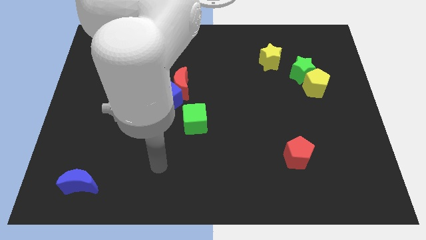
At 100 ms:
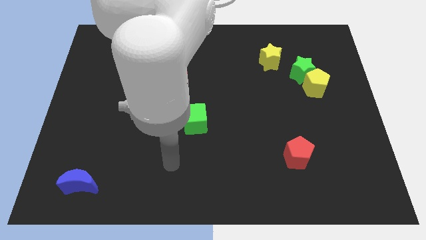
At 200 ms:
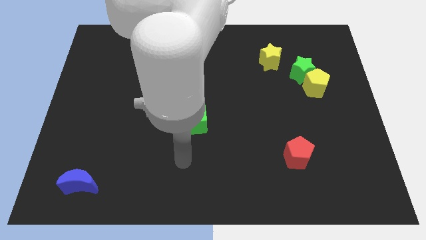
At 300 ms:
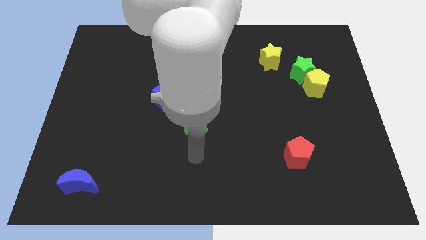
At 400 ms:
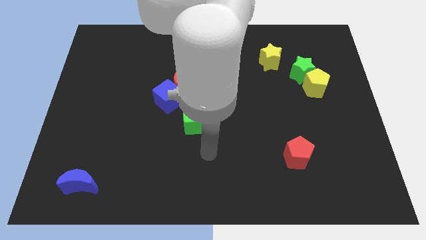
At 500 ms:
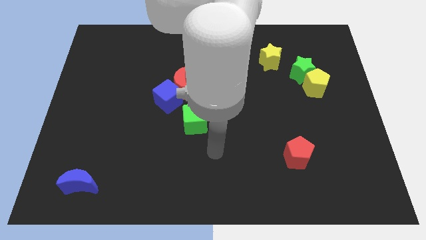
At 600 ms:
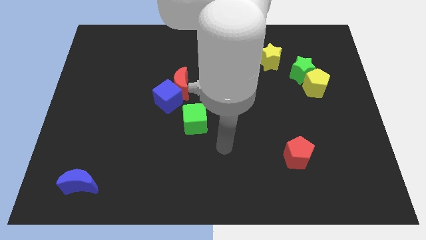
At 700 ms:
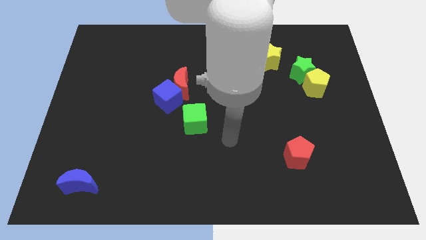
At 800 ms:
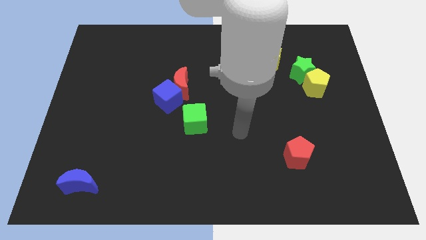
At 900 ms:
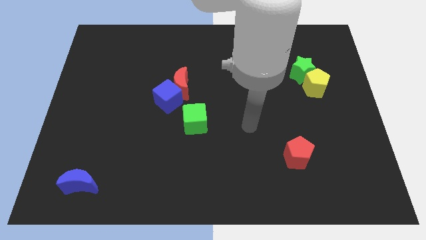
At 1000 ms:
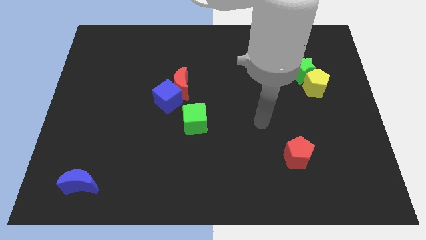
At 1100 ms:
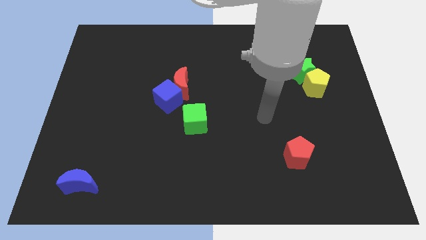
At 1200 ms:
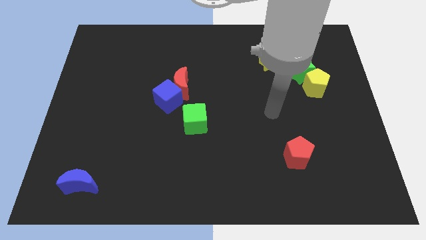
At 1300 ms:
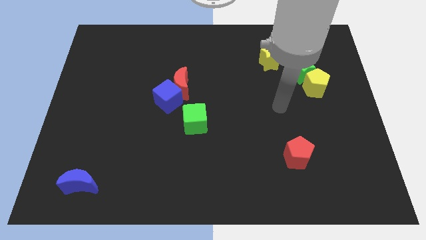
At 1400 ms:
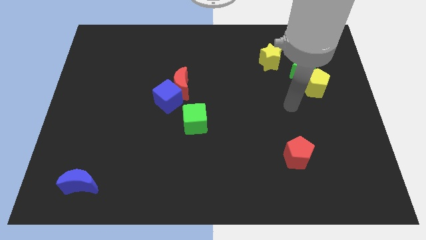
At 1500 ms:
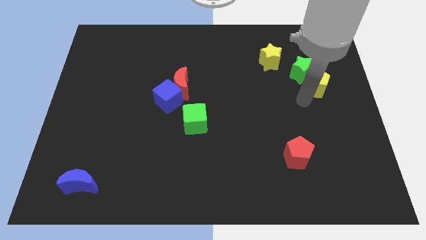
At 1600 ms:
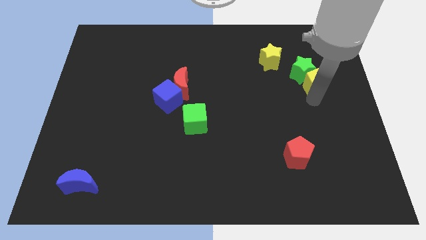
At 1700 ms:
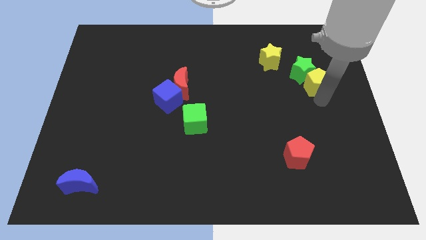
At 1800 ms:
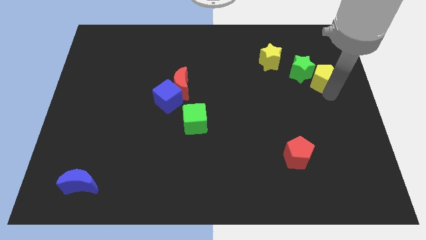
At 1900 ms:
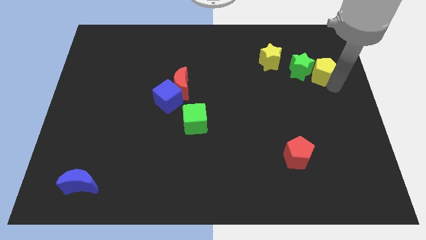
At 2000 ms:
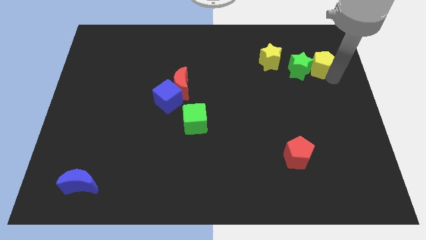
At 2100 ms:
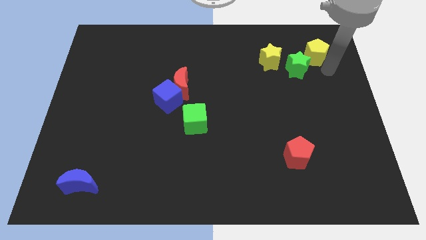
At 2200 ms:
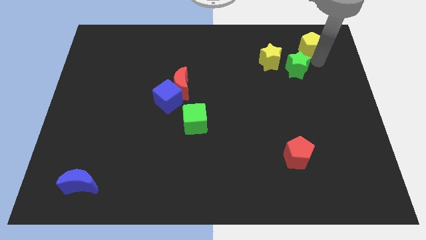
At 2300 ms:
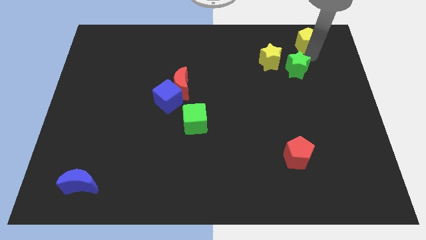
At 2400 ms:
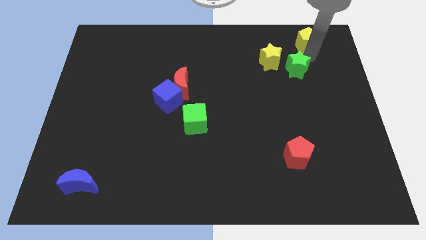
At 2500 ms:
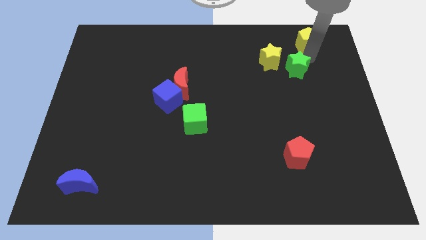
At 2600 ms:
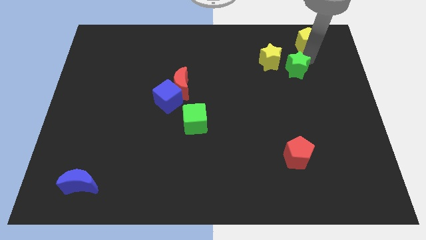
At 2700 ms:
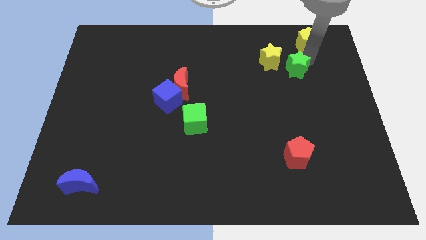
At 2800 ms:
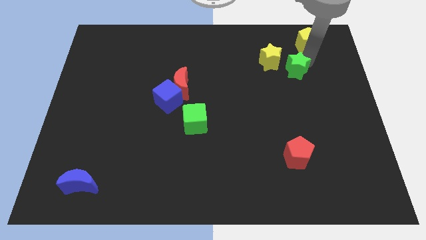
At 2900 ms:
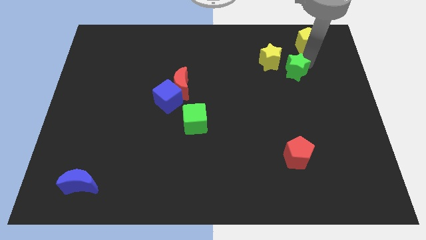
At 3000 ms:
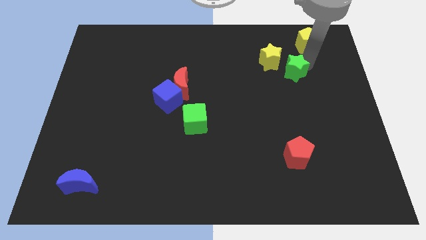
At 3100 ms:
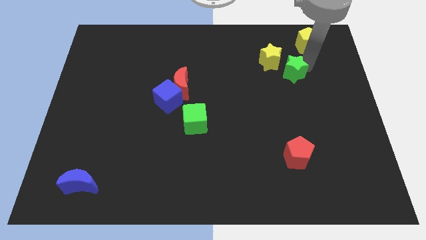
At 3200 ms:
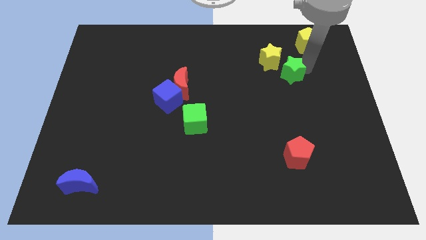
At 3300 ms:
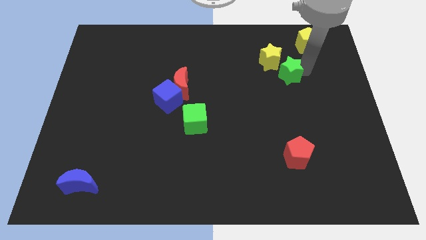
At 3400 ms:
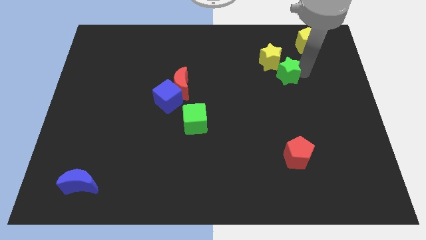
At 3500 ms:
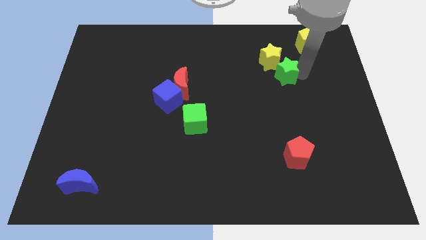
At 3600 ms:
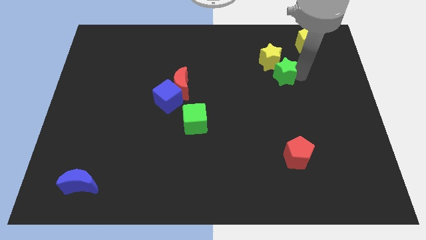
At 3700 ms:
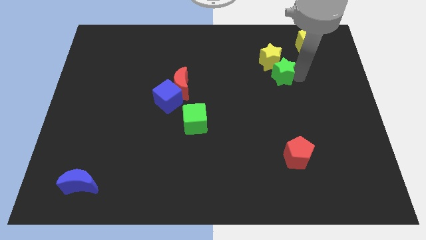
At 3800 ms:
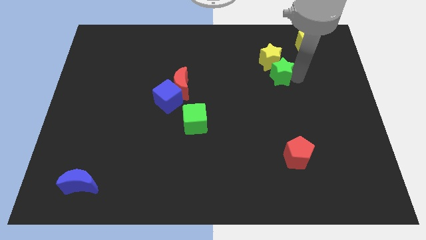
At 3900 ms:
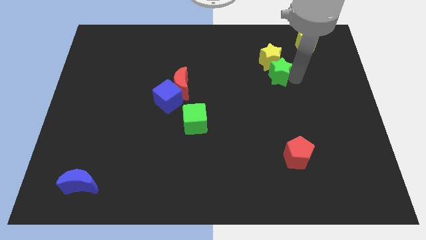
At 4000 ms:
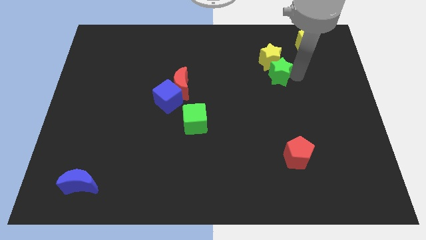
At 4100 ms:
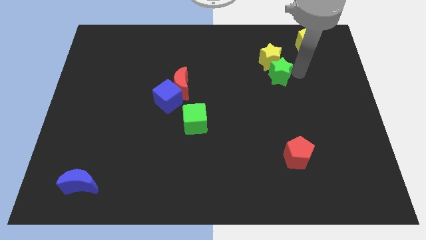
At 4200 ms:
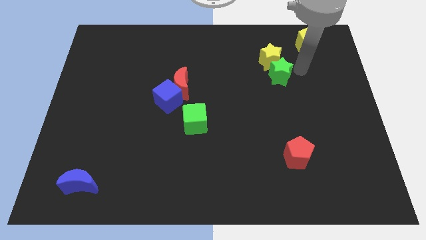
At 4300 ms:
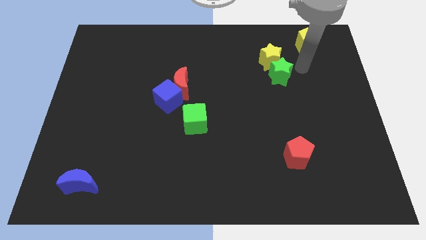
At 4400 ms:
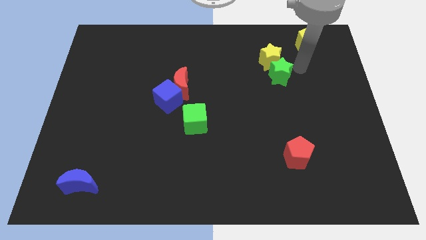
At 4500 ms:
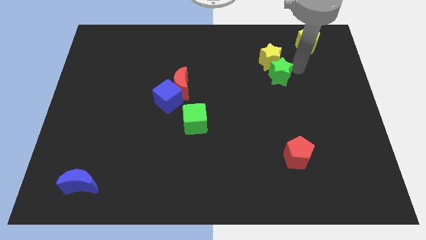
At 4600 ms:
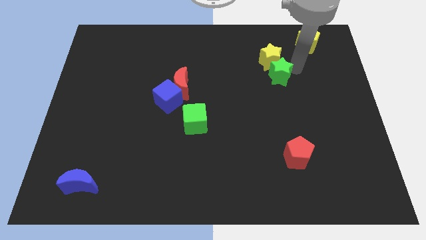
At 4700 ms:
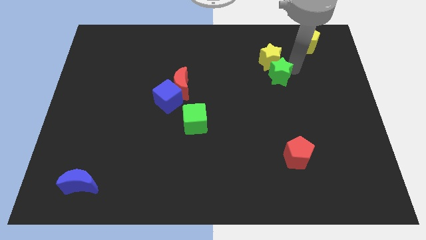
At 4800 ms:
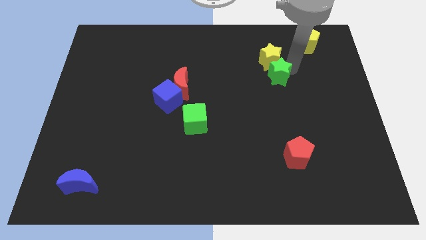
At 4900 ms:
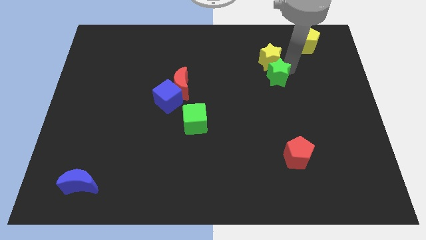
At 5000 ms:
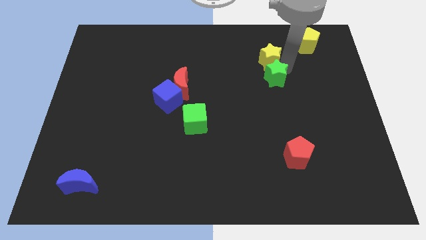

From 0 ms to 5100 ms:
push the green star a bit left

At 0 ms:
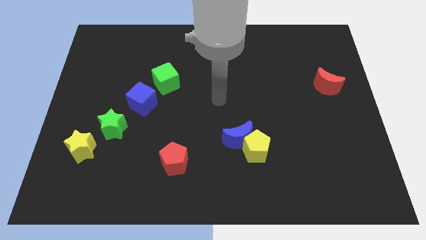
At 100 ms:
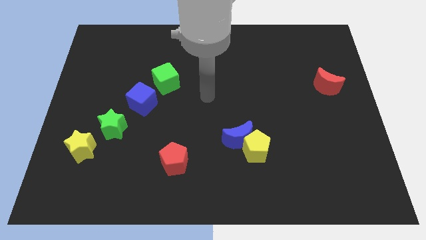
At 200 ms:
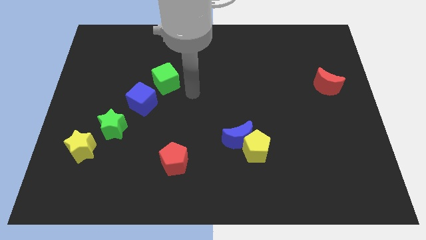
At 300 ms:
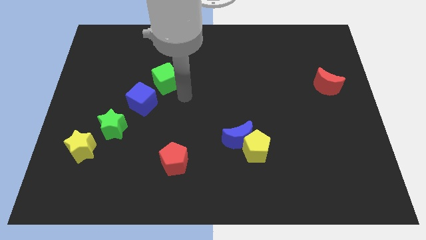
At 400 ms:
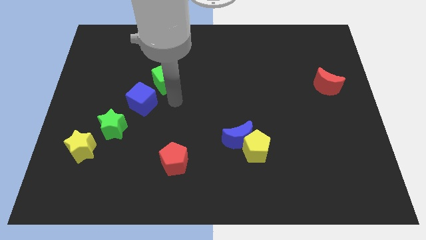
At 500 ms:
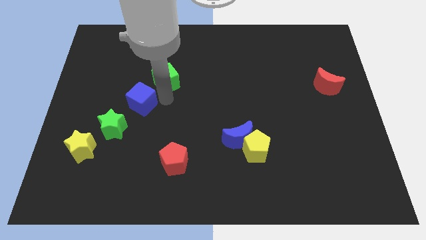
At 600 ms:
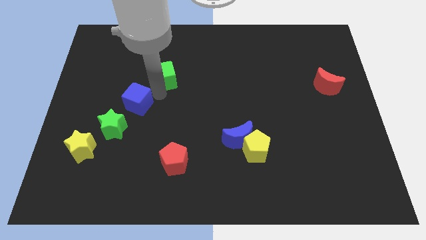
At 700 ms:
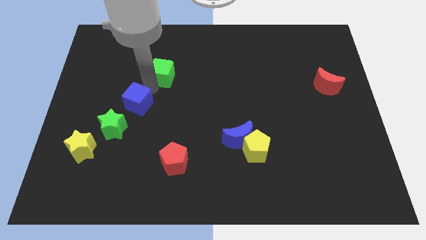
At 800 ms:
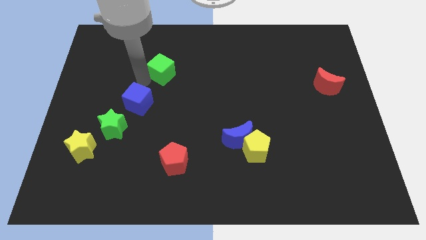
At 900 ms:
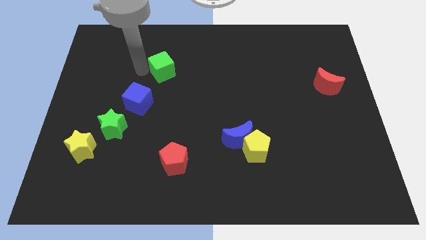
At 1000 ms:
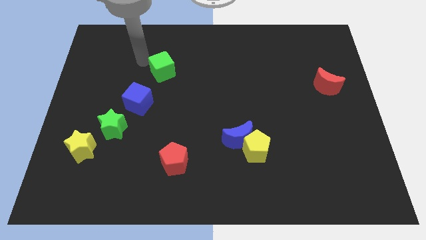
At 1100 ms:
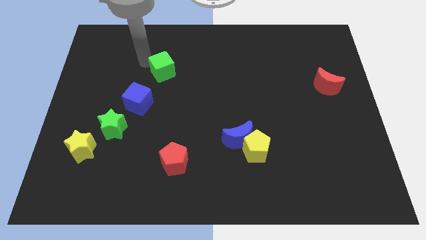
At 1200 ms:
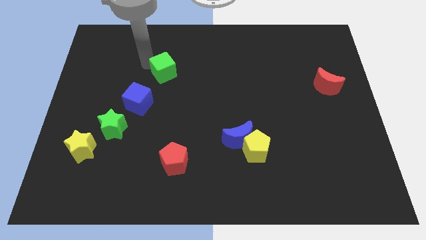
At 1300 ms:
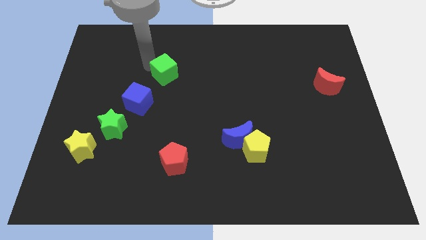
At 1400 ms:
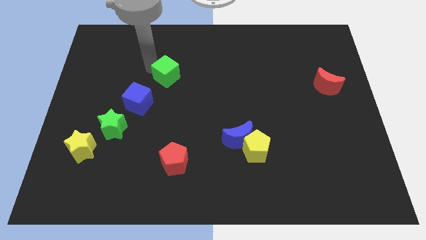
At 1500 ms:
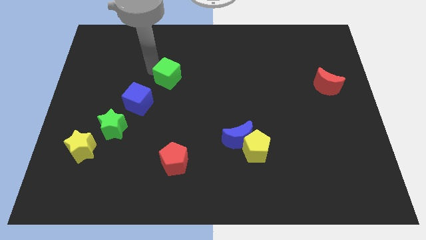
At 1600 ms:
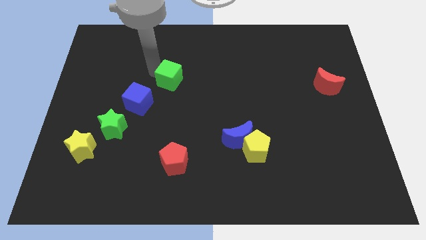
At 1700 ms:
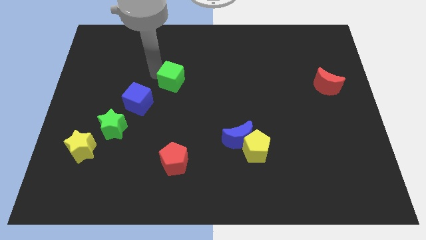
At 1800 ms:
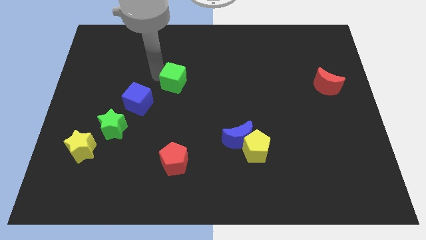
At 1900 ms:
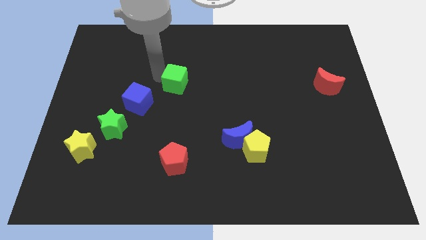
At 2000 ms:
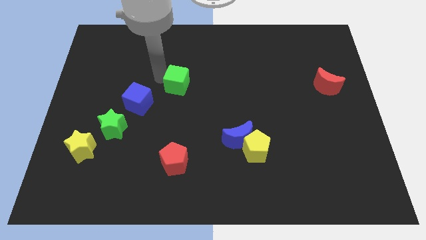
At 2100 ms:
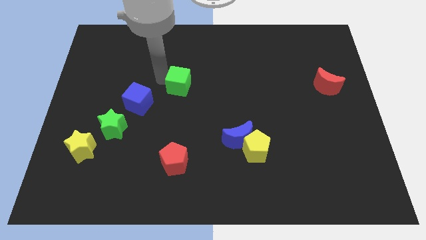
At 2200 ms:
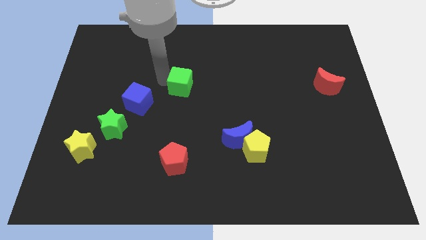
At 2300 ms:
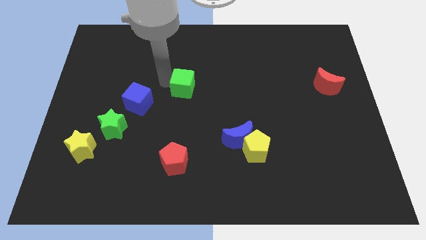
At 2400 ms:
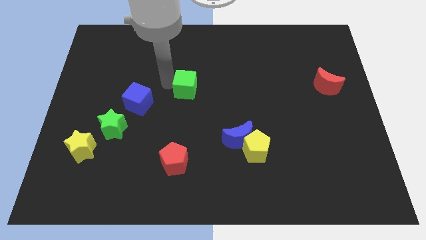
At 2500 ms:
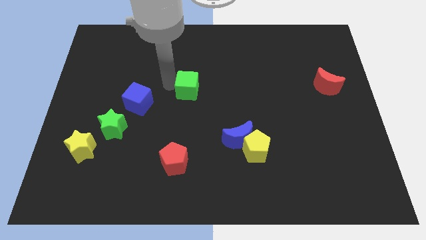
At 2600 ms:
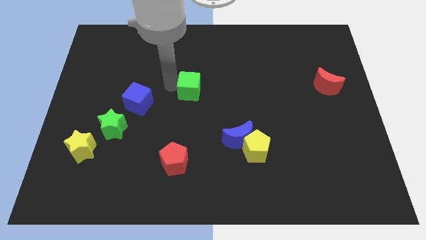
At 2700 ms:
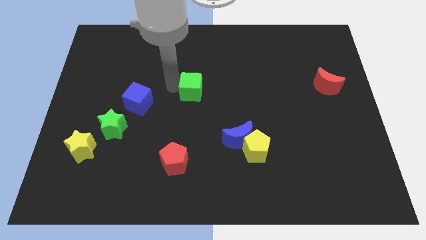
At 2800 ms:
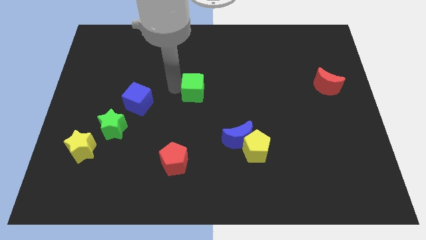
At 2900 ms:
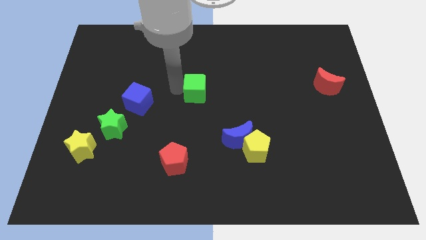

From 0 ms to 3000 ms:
push the green cube somewhat right
